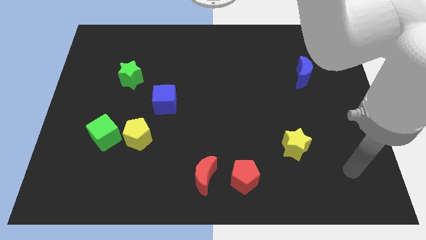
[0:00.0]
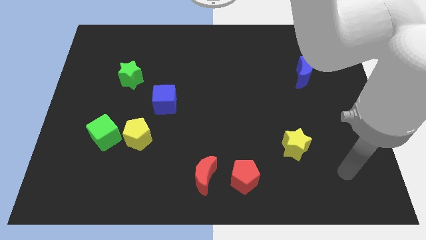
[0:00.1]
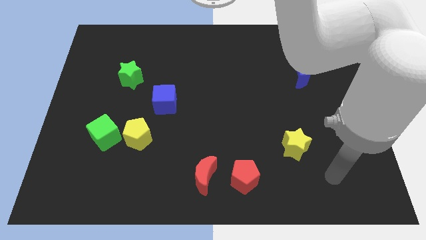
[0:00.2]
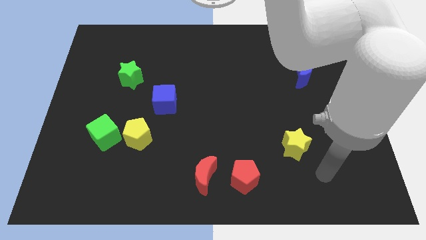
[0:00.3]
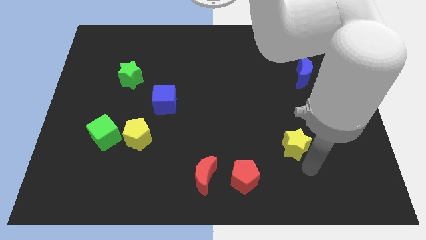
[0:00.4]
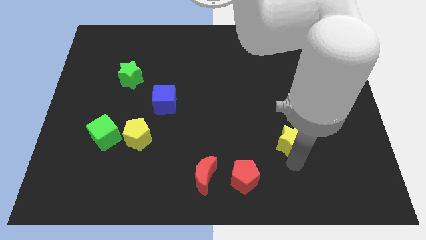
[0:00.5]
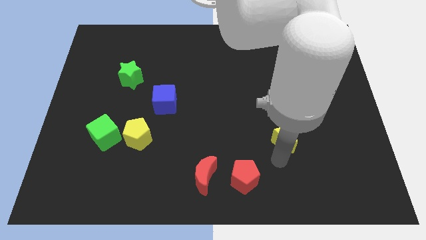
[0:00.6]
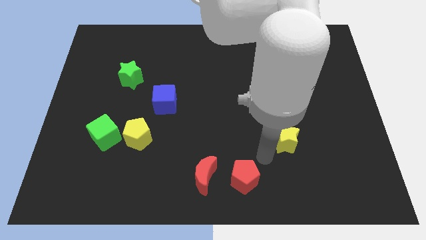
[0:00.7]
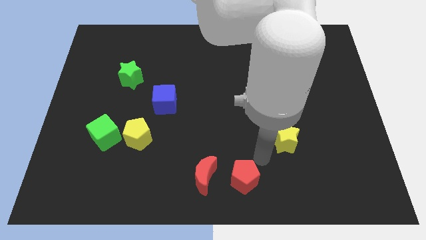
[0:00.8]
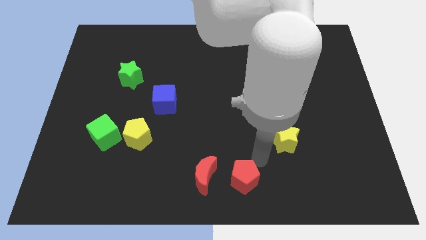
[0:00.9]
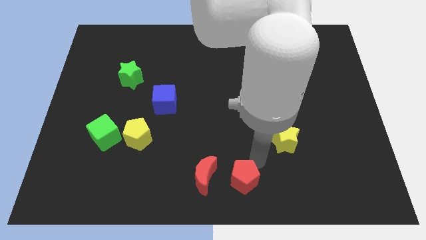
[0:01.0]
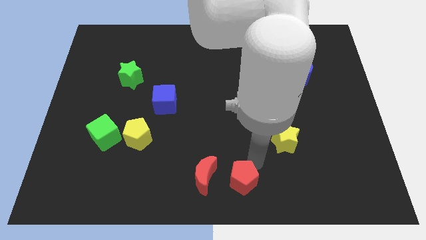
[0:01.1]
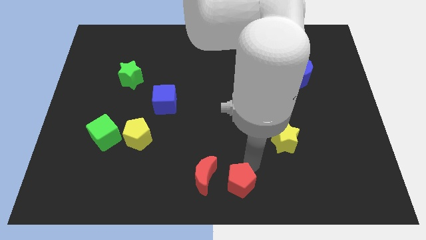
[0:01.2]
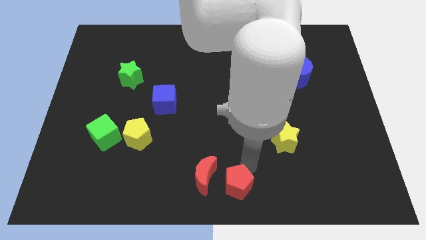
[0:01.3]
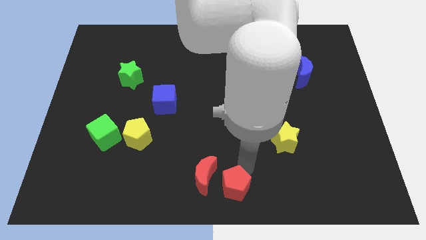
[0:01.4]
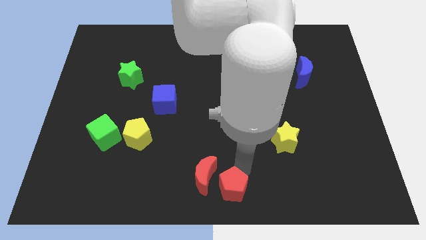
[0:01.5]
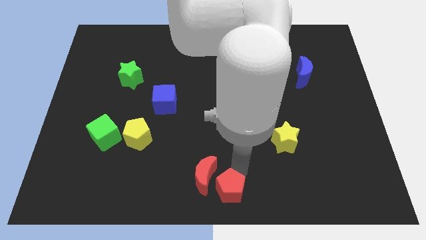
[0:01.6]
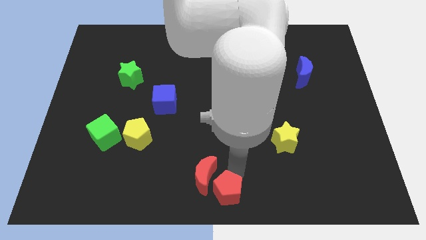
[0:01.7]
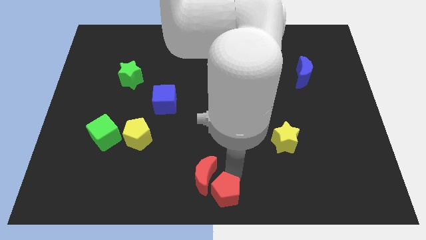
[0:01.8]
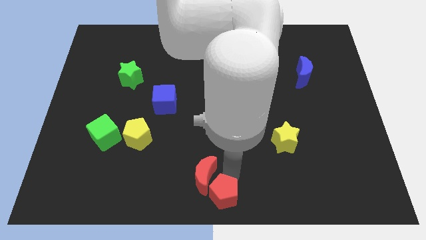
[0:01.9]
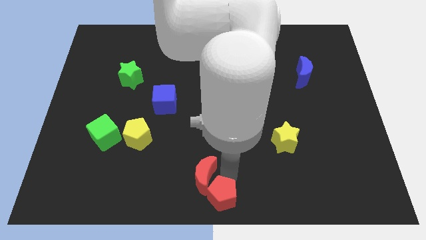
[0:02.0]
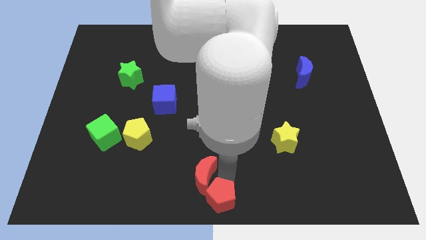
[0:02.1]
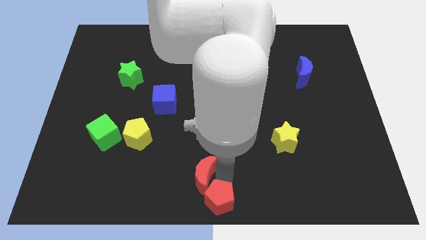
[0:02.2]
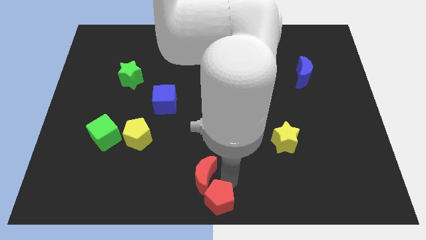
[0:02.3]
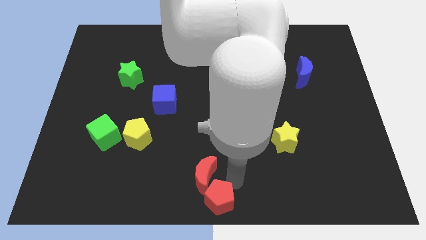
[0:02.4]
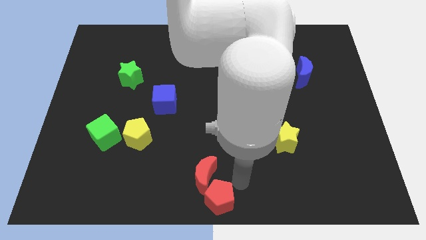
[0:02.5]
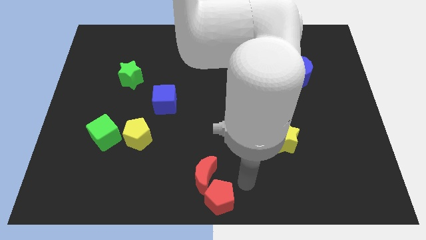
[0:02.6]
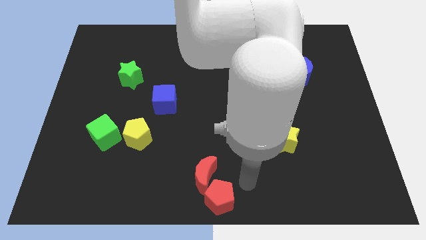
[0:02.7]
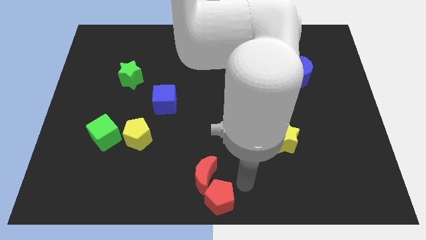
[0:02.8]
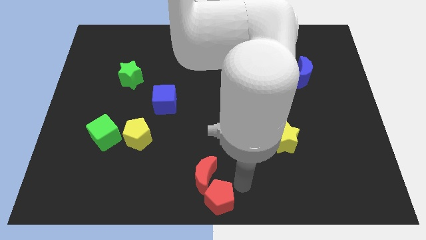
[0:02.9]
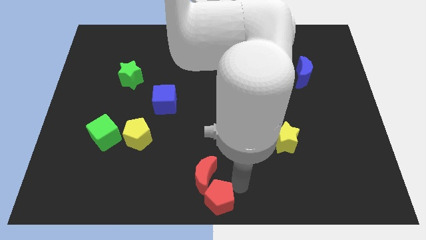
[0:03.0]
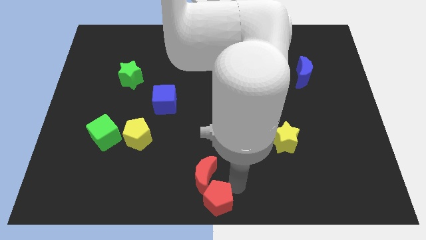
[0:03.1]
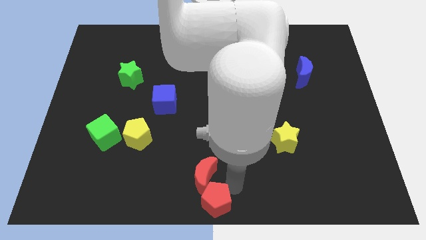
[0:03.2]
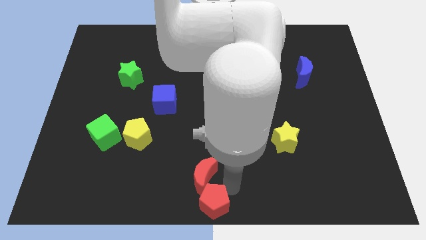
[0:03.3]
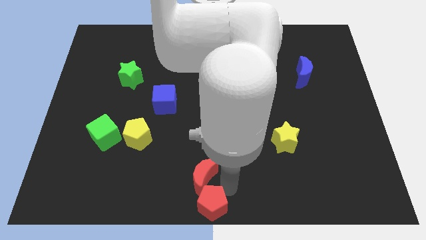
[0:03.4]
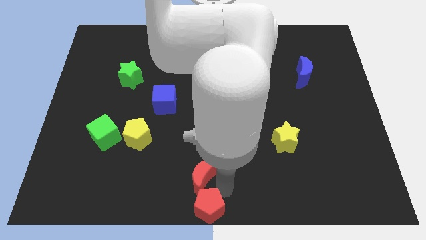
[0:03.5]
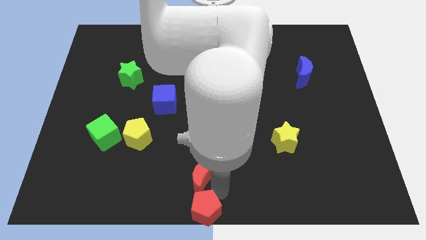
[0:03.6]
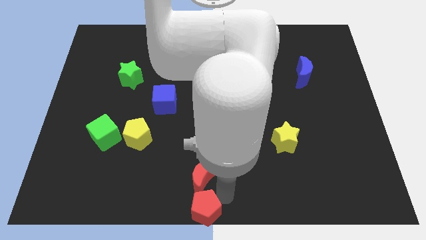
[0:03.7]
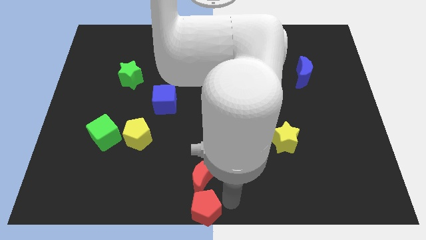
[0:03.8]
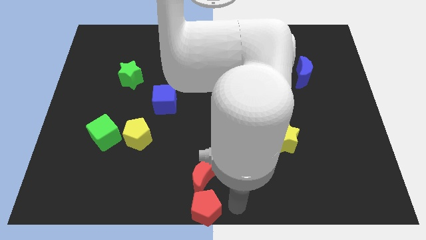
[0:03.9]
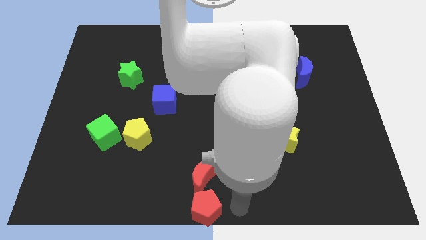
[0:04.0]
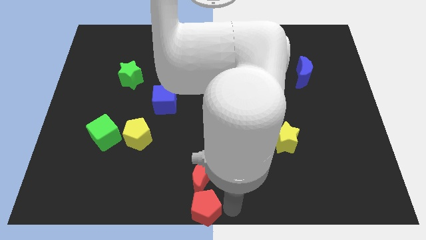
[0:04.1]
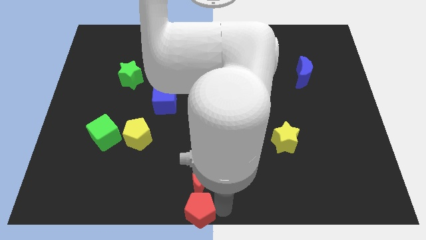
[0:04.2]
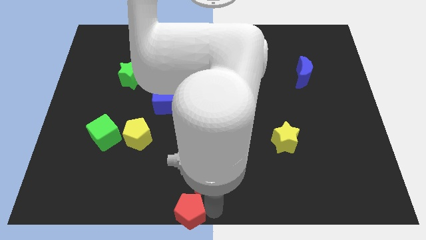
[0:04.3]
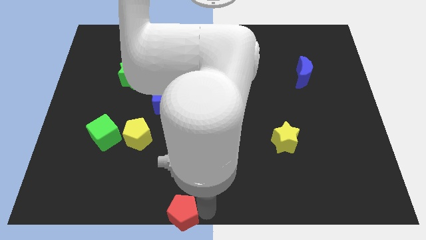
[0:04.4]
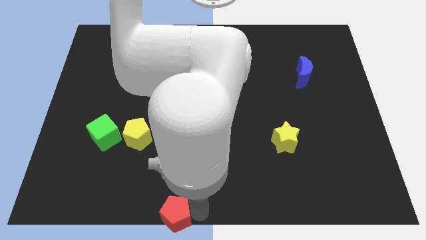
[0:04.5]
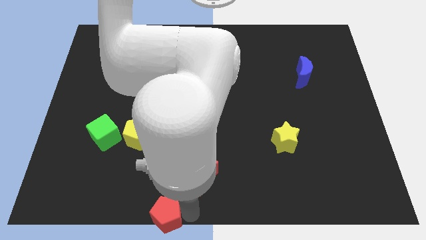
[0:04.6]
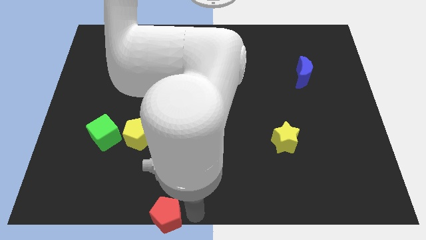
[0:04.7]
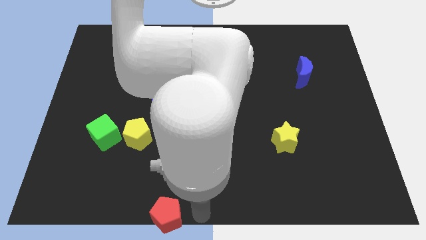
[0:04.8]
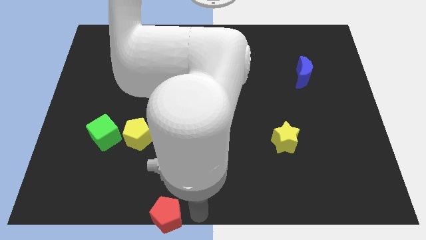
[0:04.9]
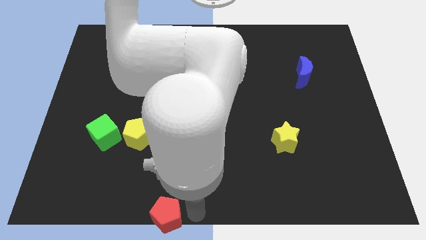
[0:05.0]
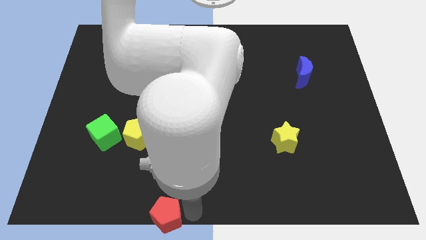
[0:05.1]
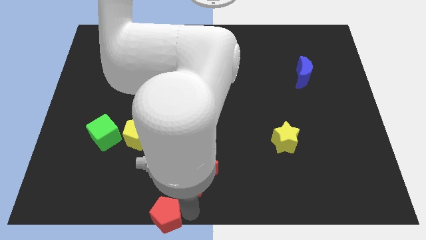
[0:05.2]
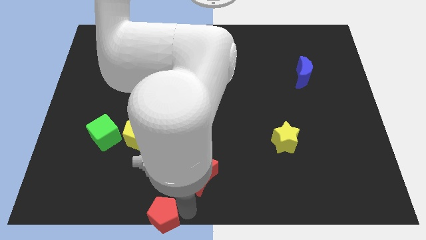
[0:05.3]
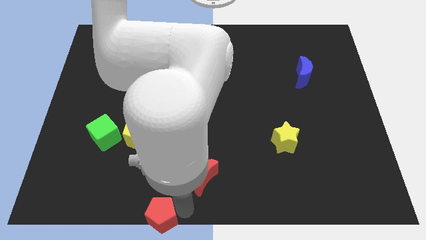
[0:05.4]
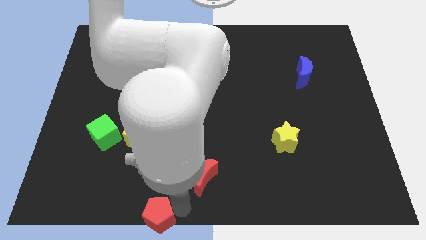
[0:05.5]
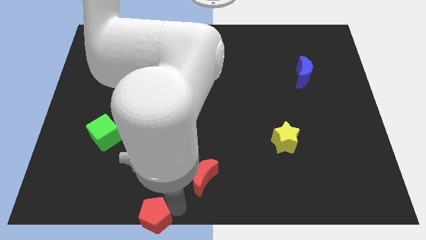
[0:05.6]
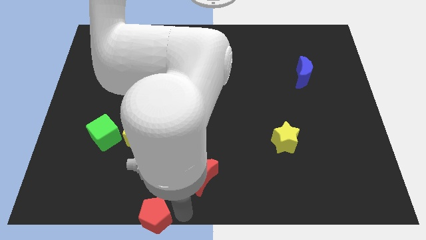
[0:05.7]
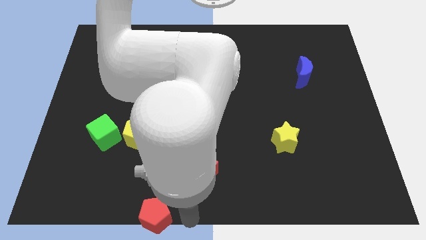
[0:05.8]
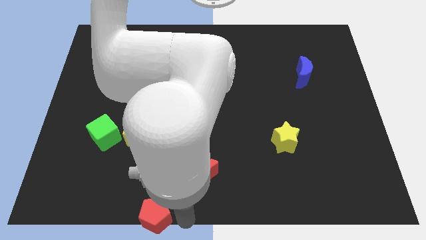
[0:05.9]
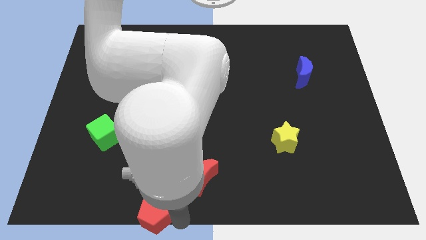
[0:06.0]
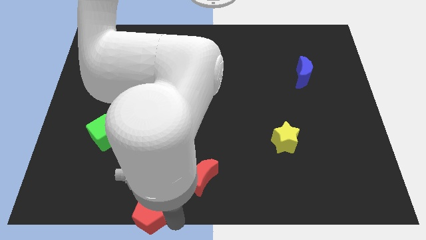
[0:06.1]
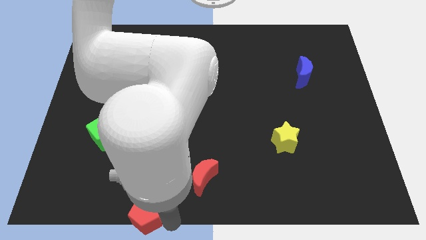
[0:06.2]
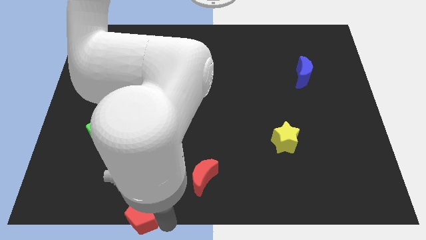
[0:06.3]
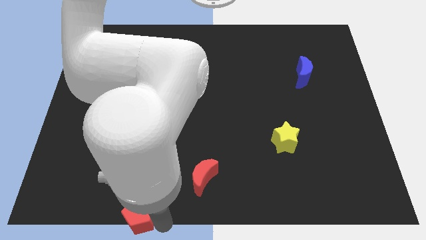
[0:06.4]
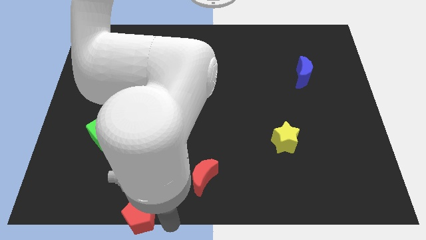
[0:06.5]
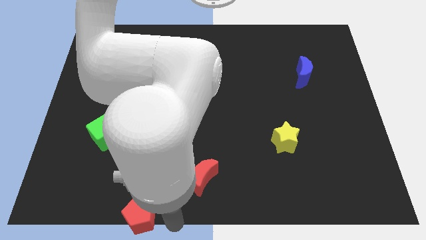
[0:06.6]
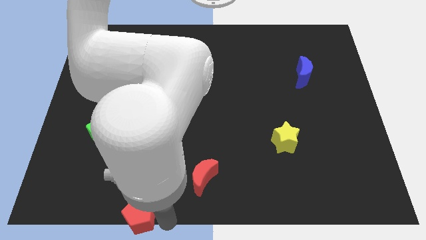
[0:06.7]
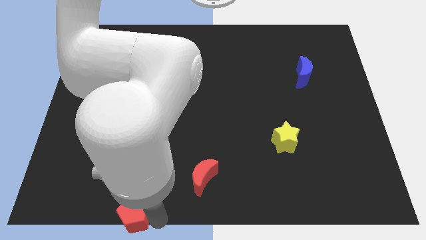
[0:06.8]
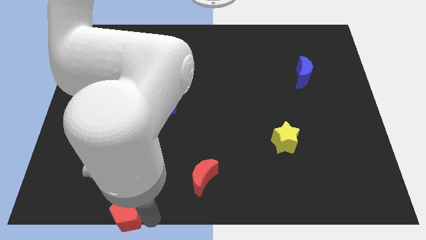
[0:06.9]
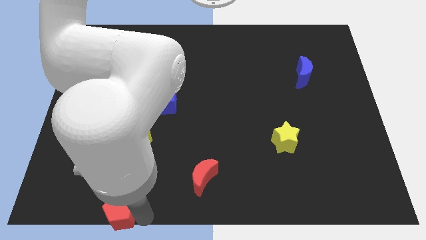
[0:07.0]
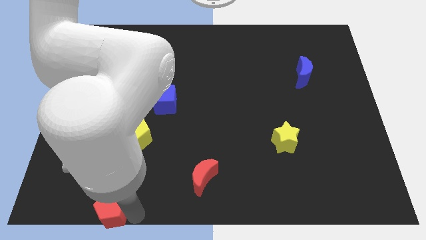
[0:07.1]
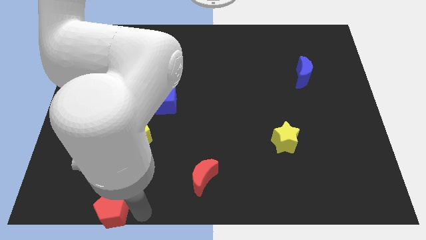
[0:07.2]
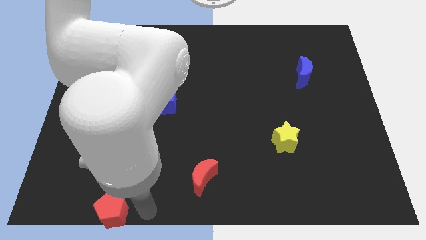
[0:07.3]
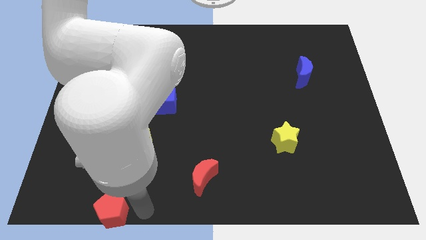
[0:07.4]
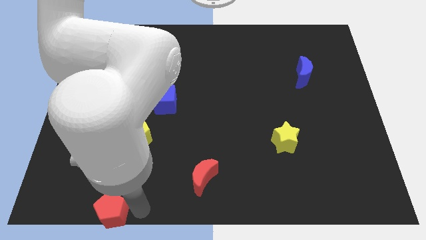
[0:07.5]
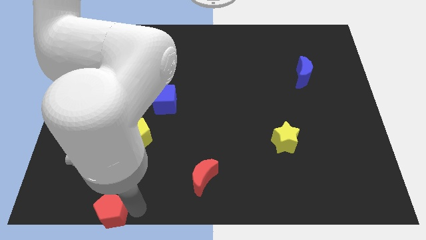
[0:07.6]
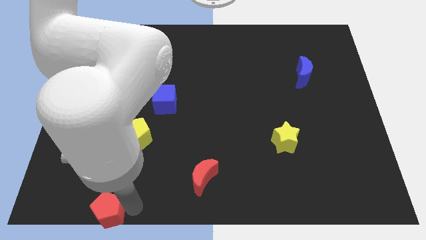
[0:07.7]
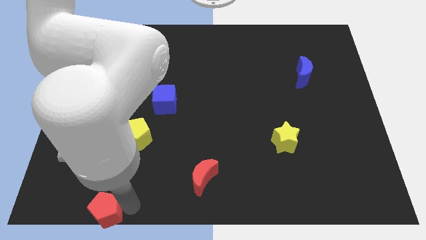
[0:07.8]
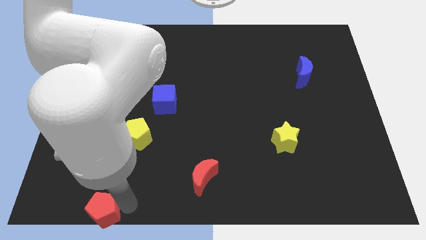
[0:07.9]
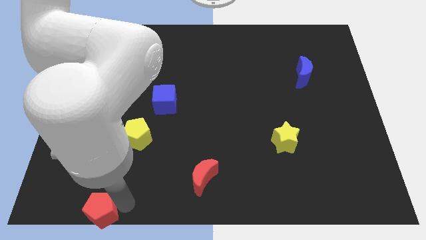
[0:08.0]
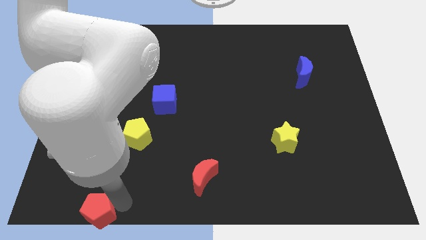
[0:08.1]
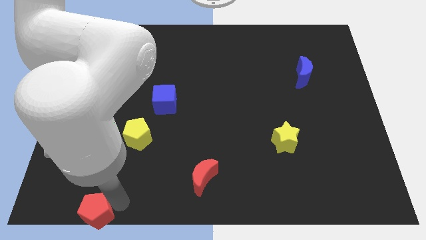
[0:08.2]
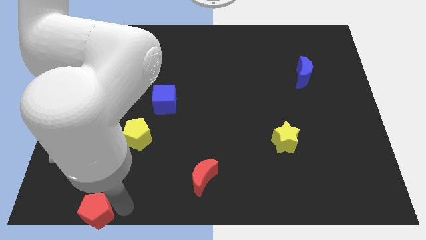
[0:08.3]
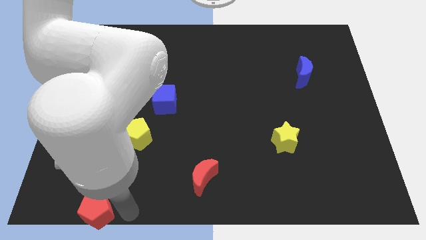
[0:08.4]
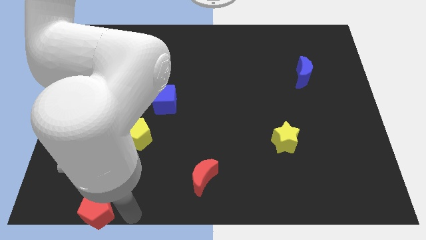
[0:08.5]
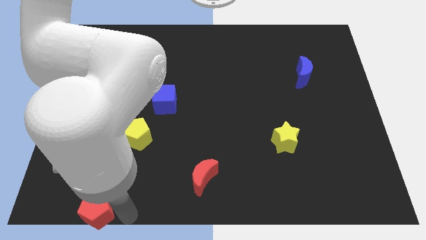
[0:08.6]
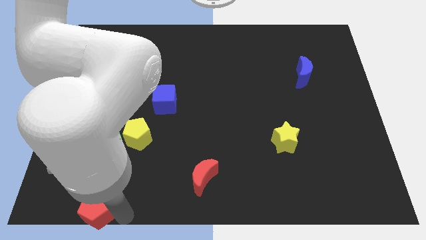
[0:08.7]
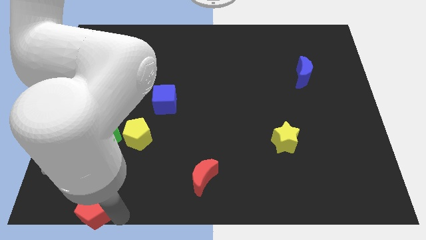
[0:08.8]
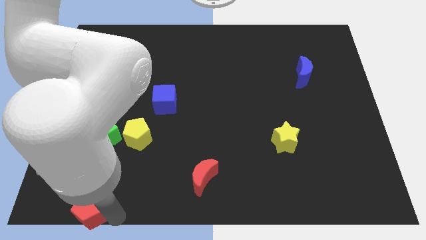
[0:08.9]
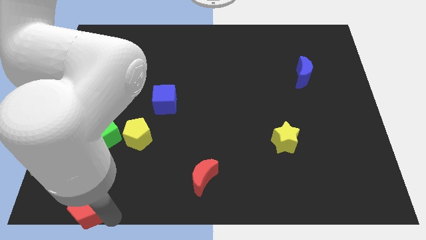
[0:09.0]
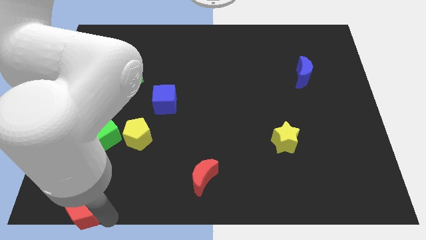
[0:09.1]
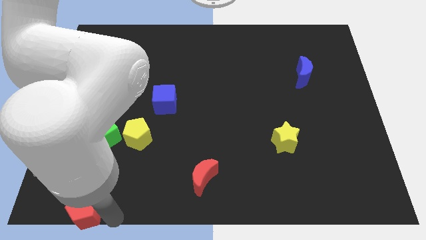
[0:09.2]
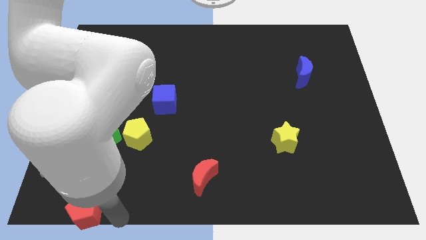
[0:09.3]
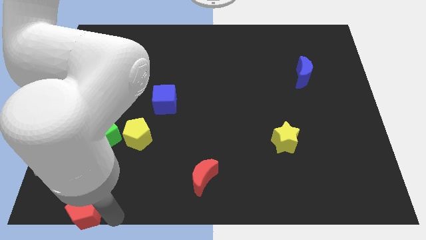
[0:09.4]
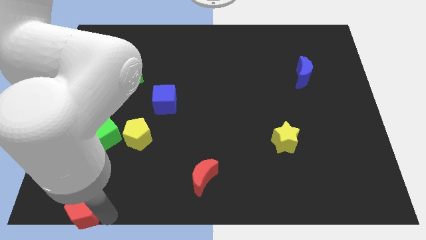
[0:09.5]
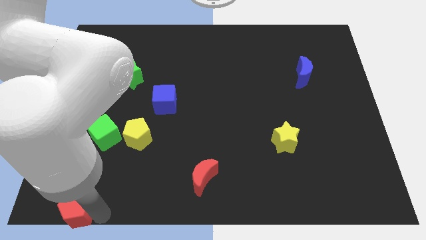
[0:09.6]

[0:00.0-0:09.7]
move the red pentagon to the bottom left corner
